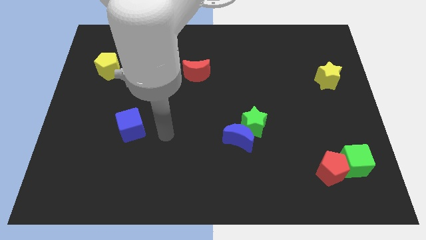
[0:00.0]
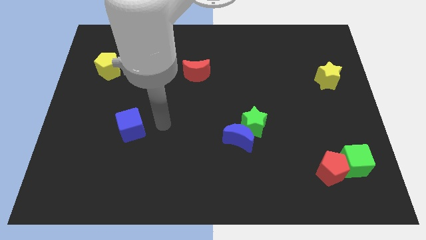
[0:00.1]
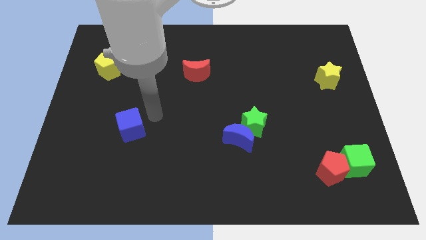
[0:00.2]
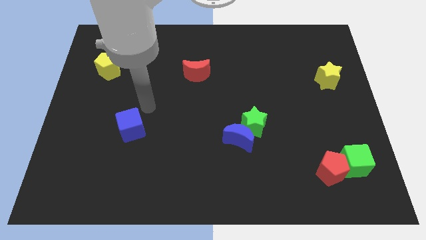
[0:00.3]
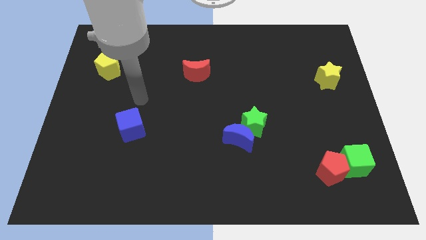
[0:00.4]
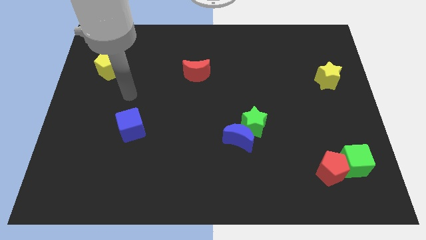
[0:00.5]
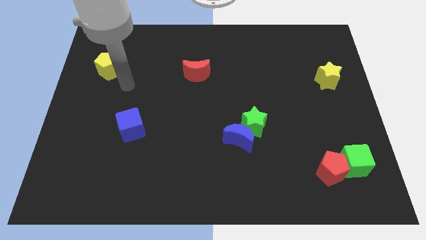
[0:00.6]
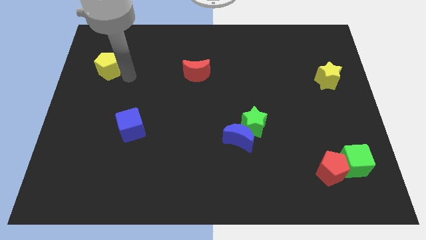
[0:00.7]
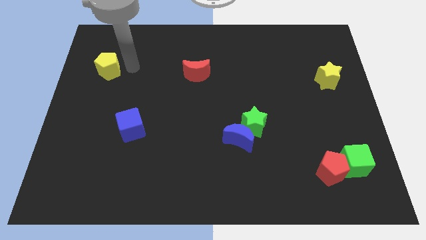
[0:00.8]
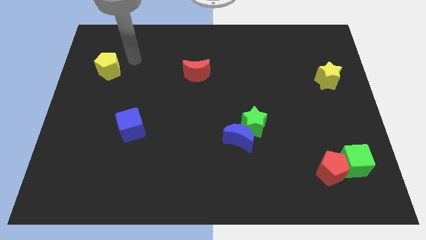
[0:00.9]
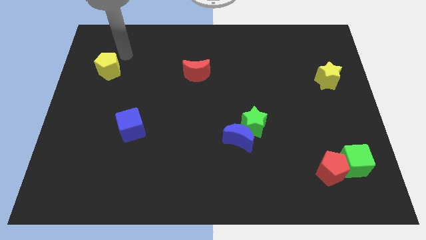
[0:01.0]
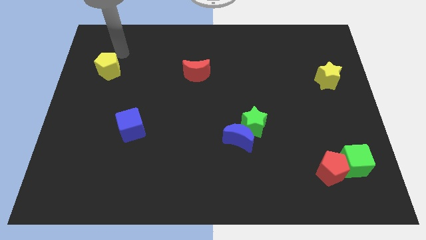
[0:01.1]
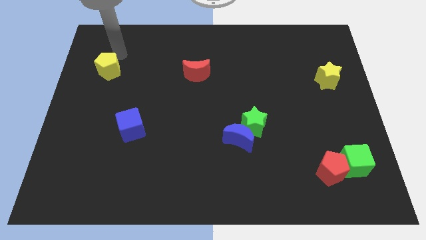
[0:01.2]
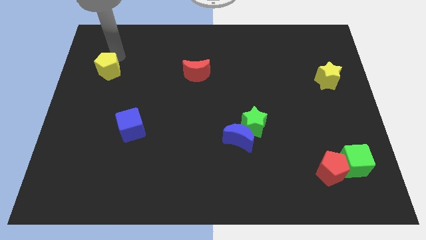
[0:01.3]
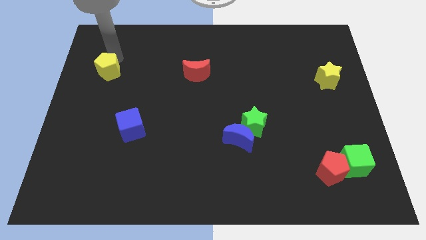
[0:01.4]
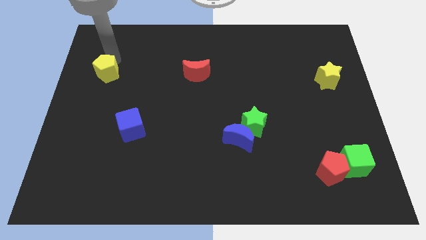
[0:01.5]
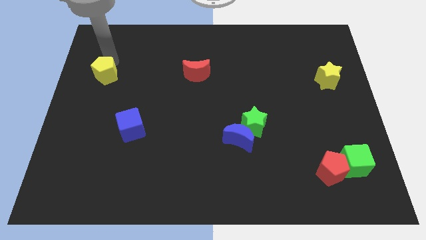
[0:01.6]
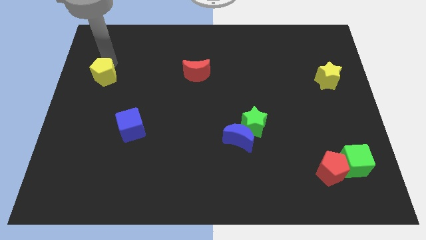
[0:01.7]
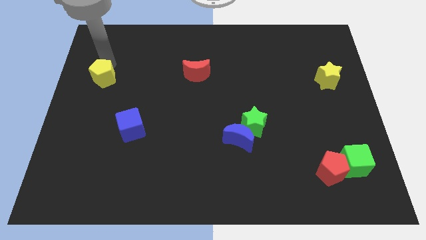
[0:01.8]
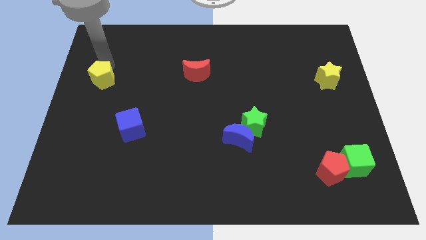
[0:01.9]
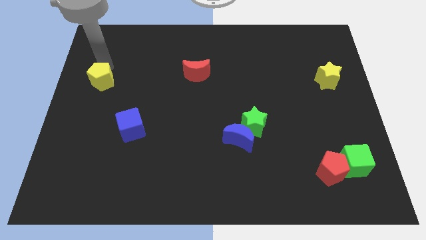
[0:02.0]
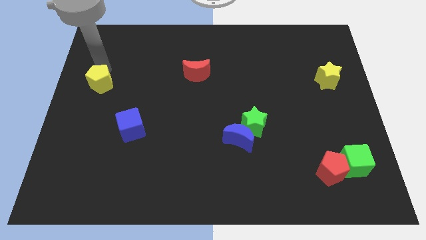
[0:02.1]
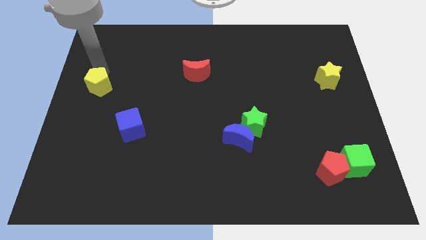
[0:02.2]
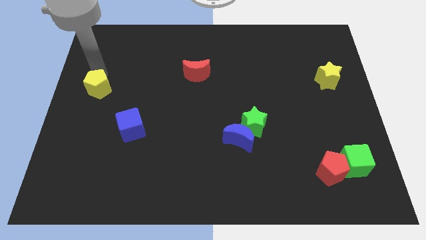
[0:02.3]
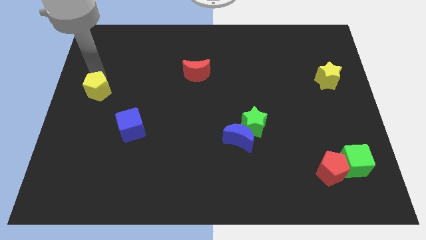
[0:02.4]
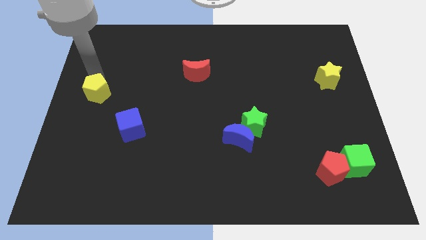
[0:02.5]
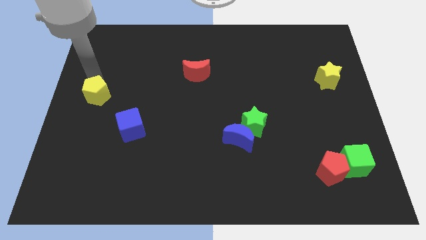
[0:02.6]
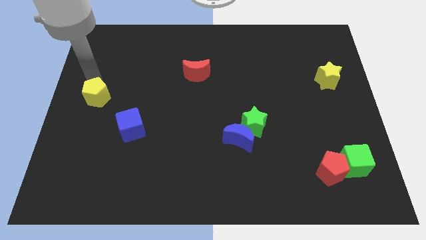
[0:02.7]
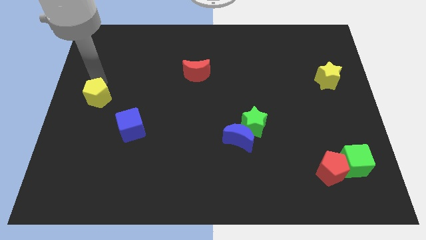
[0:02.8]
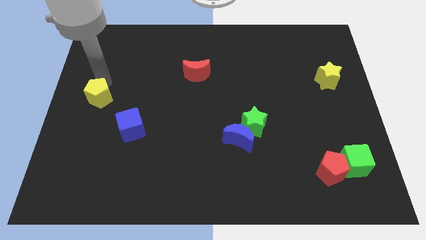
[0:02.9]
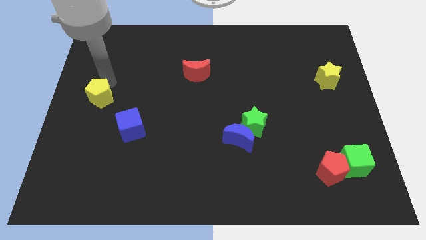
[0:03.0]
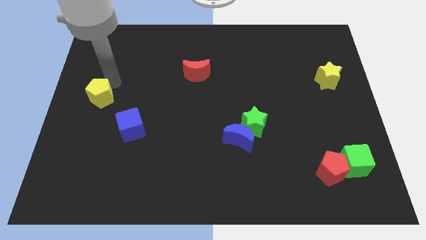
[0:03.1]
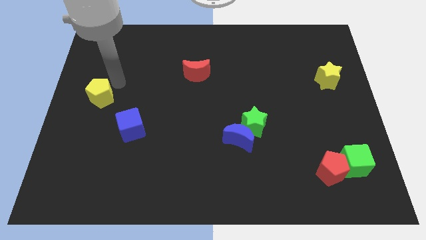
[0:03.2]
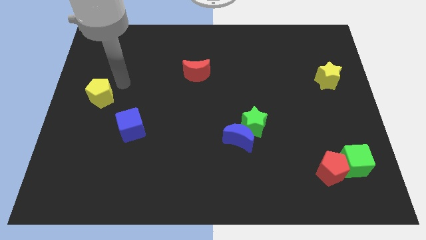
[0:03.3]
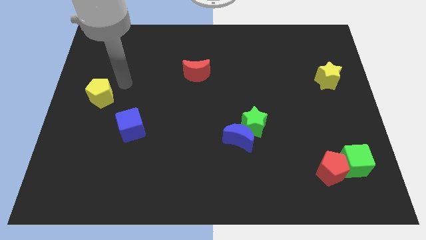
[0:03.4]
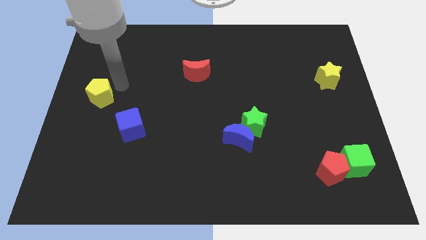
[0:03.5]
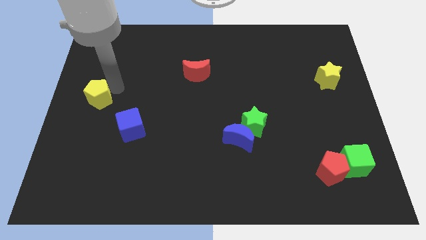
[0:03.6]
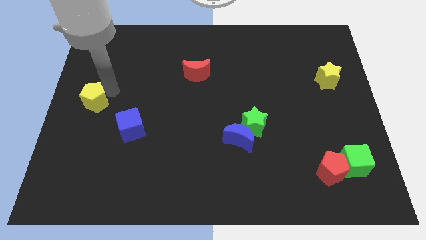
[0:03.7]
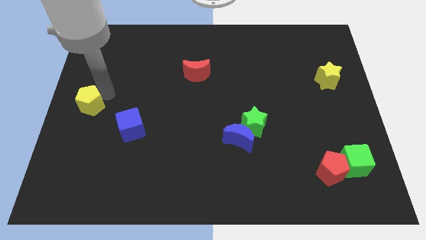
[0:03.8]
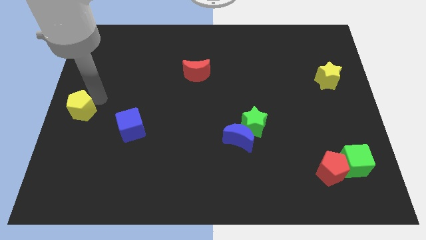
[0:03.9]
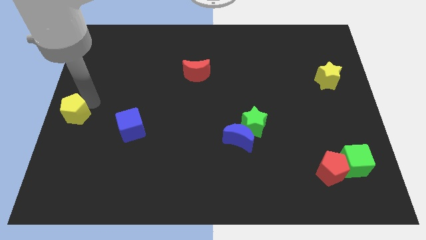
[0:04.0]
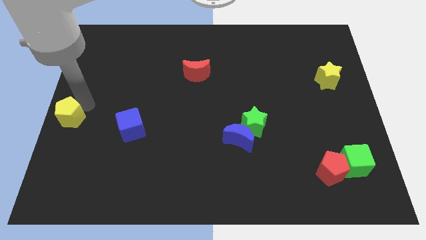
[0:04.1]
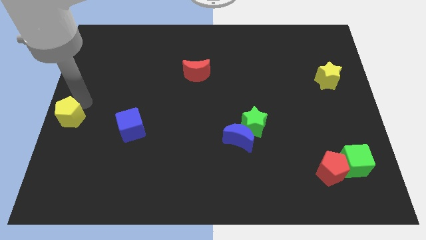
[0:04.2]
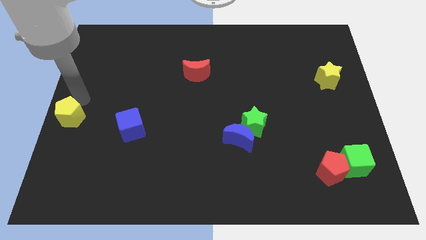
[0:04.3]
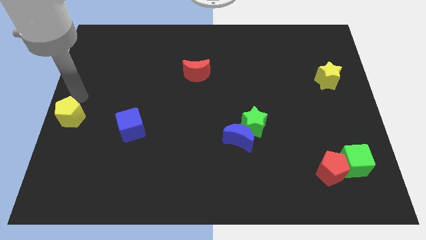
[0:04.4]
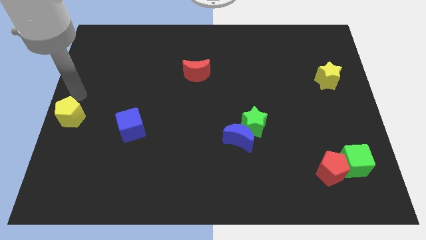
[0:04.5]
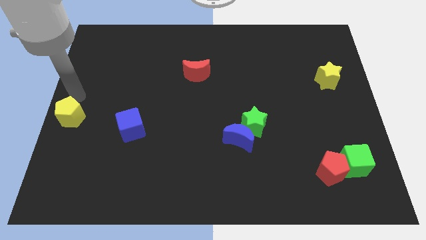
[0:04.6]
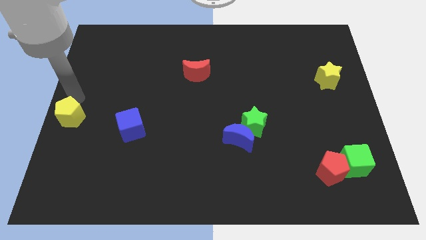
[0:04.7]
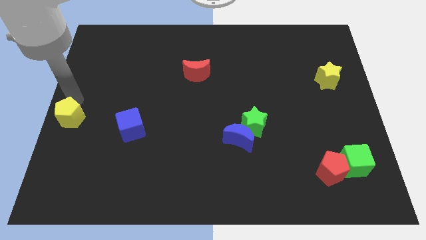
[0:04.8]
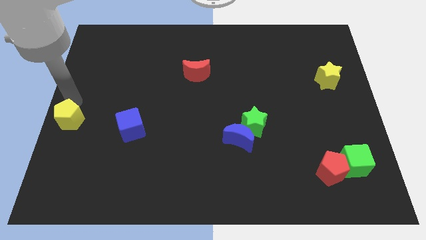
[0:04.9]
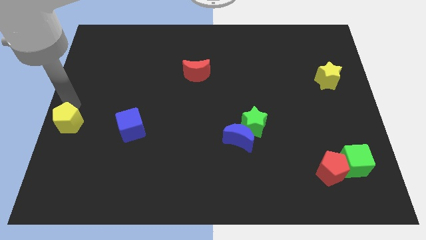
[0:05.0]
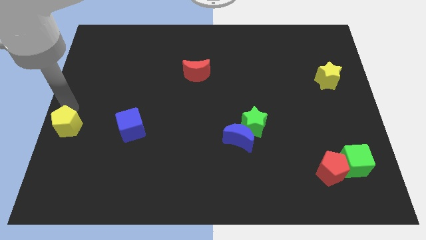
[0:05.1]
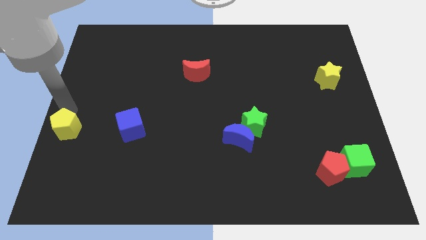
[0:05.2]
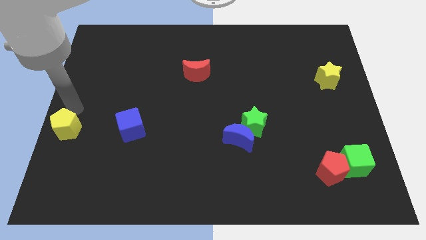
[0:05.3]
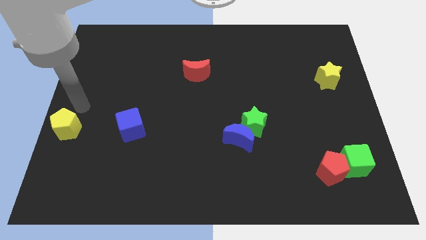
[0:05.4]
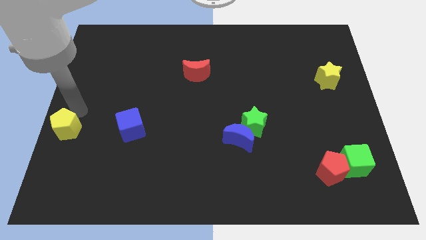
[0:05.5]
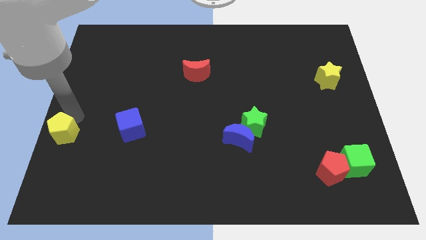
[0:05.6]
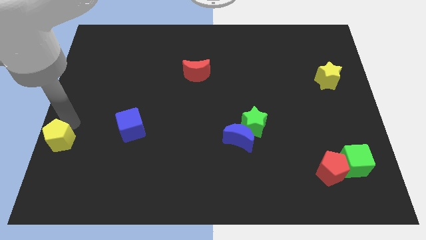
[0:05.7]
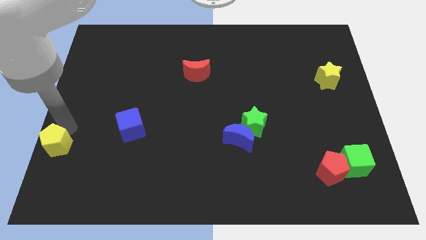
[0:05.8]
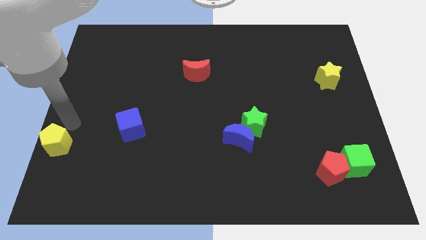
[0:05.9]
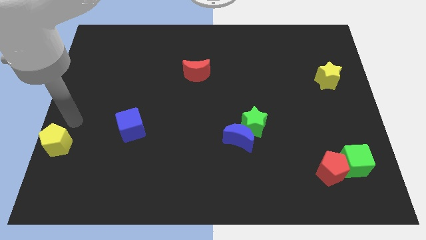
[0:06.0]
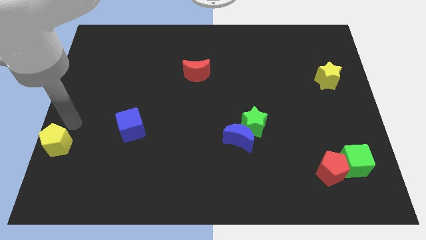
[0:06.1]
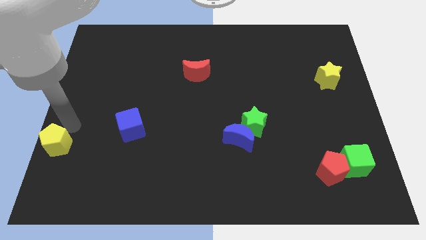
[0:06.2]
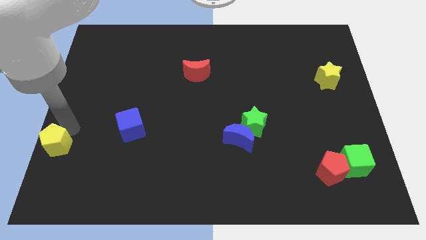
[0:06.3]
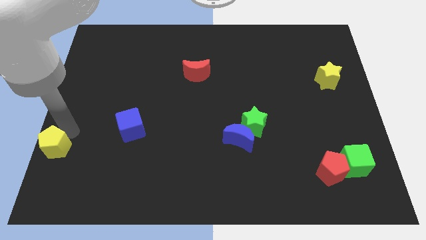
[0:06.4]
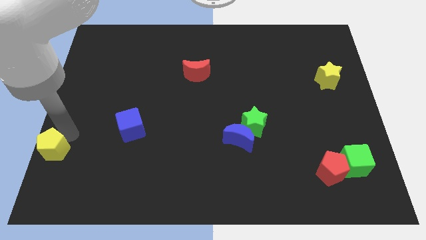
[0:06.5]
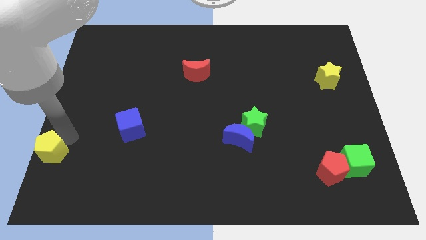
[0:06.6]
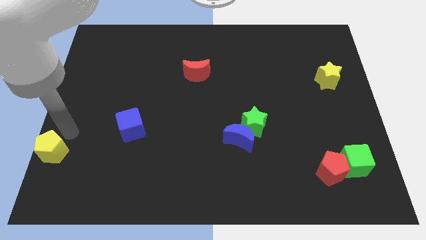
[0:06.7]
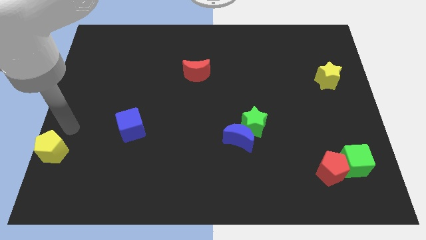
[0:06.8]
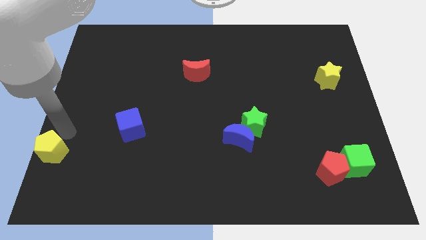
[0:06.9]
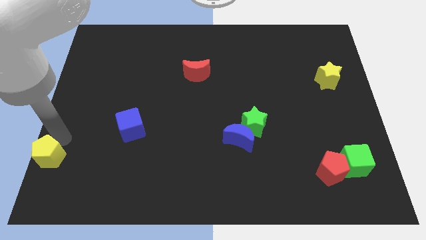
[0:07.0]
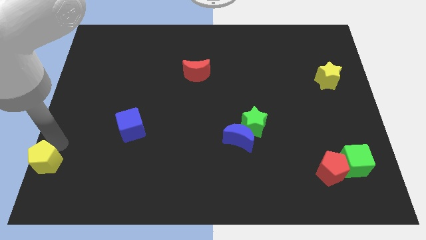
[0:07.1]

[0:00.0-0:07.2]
put the yellow pentagon to the bottom left corner
